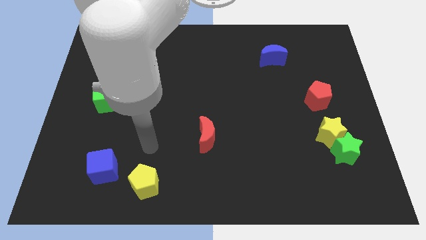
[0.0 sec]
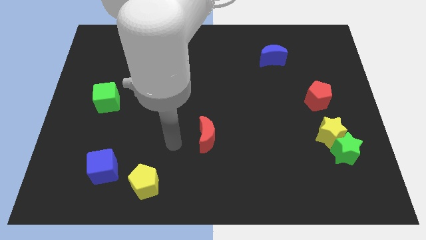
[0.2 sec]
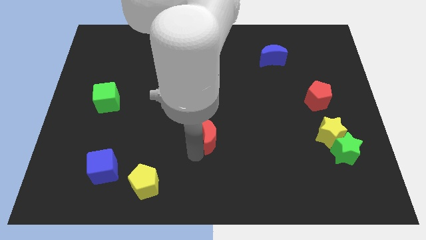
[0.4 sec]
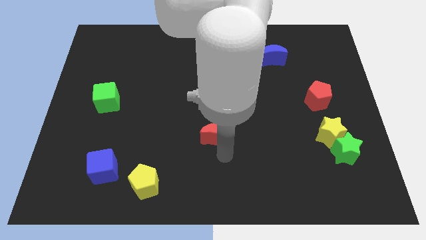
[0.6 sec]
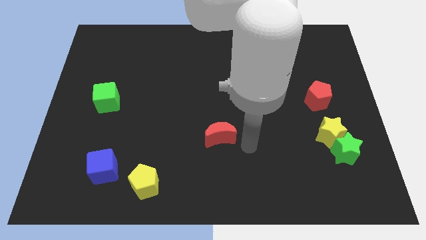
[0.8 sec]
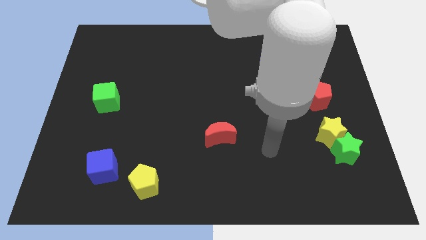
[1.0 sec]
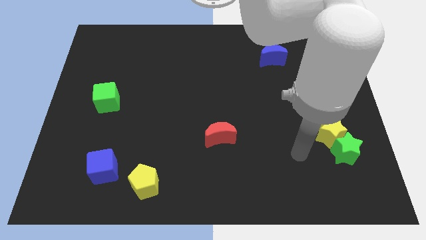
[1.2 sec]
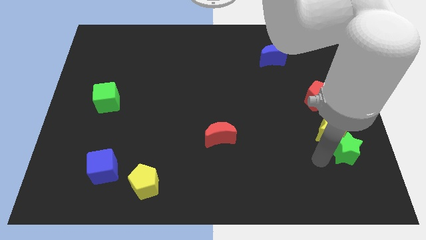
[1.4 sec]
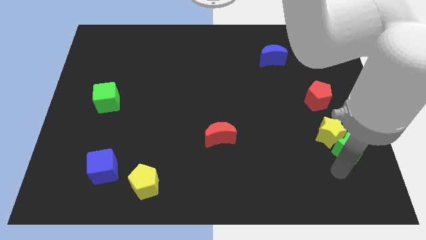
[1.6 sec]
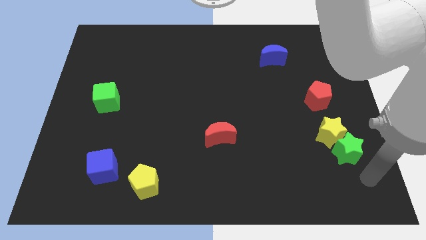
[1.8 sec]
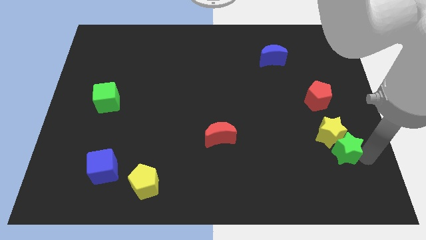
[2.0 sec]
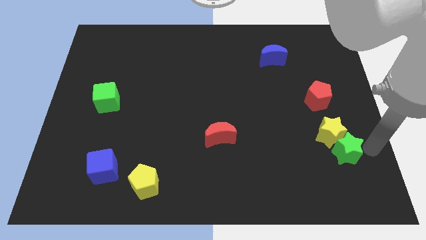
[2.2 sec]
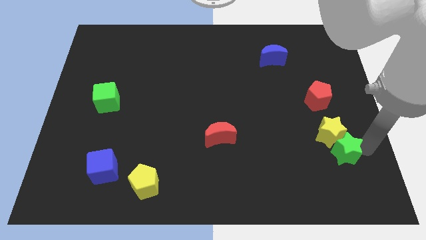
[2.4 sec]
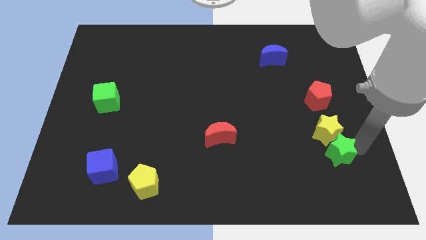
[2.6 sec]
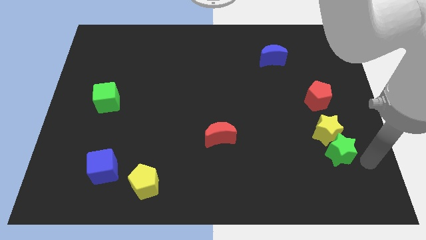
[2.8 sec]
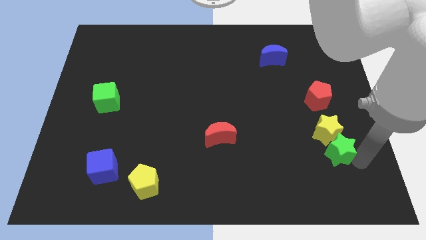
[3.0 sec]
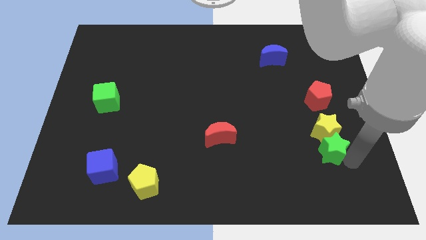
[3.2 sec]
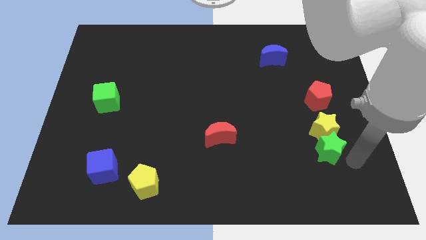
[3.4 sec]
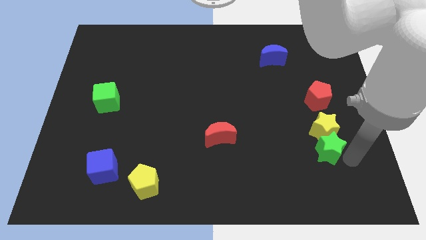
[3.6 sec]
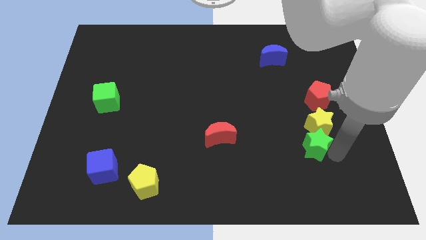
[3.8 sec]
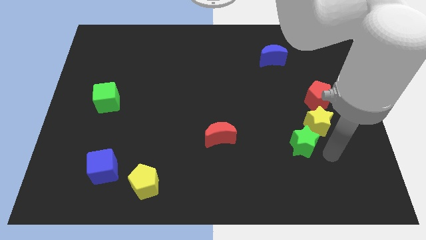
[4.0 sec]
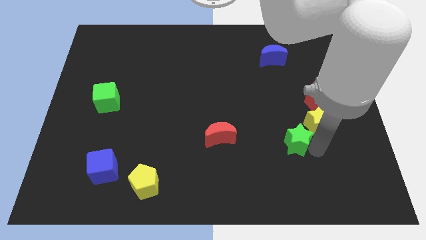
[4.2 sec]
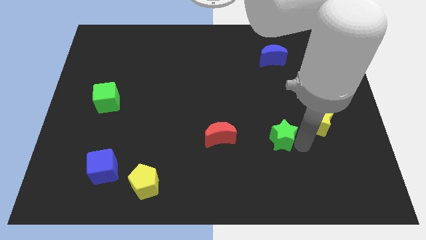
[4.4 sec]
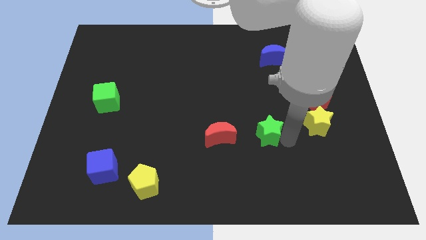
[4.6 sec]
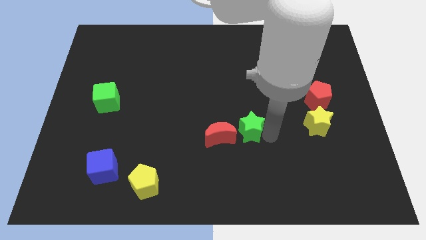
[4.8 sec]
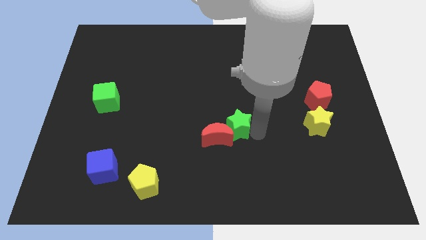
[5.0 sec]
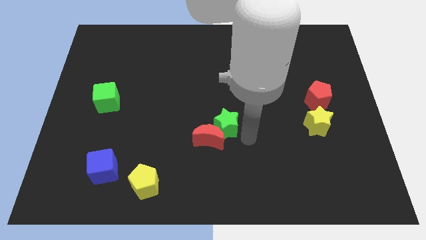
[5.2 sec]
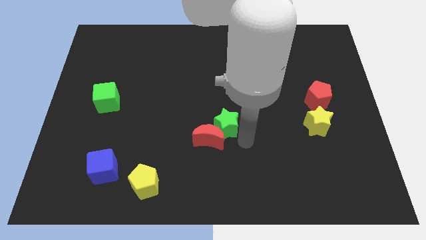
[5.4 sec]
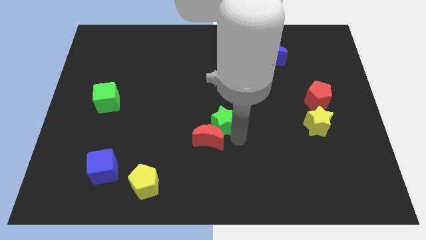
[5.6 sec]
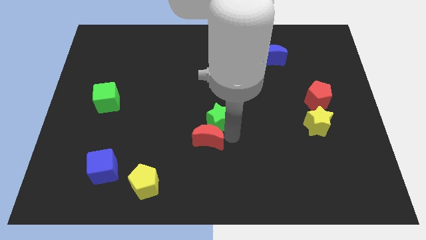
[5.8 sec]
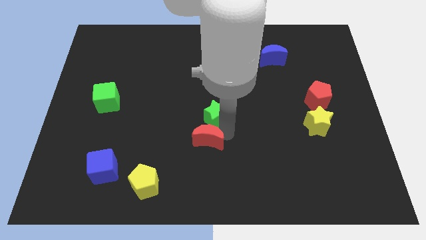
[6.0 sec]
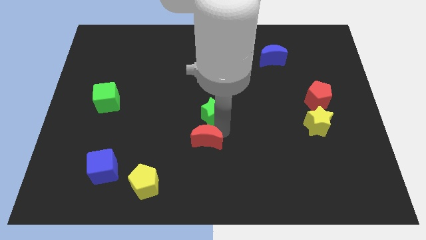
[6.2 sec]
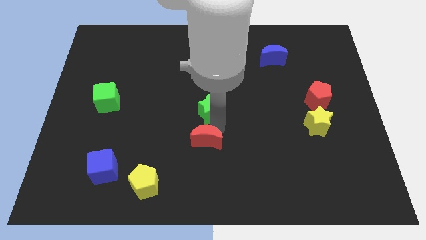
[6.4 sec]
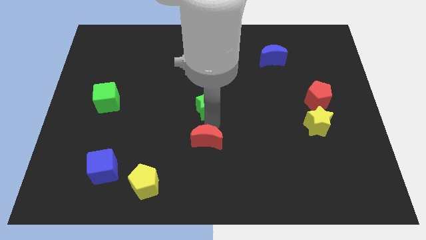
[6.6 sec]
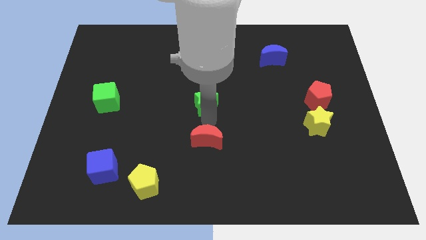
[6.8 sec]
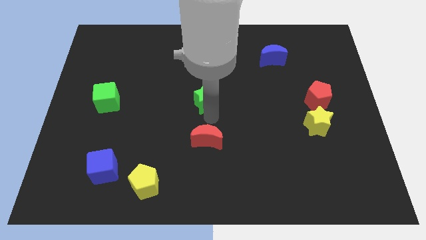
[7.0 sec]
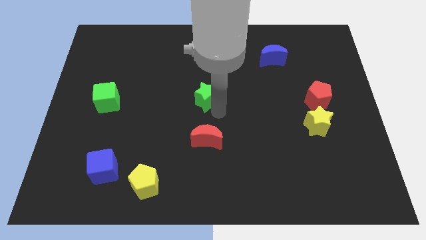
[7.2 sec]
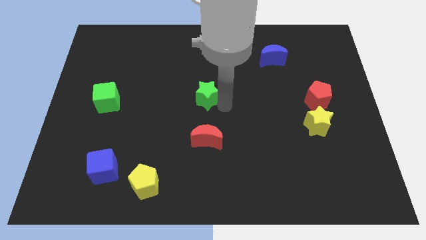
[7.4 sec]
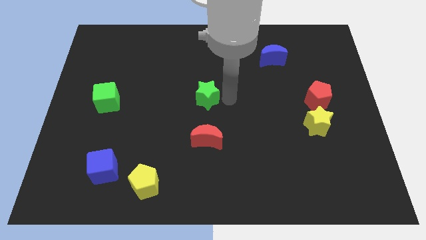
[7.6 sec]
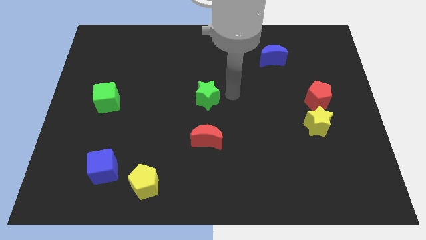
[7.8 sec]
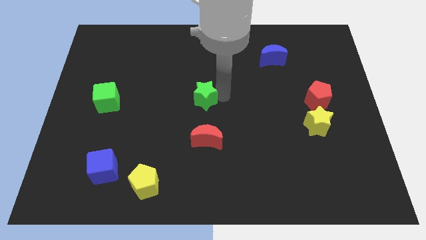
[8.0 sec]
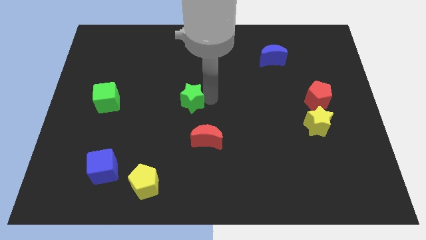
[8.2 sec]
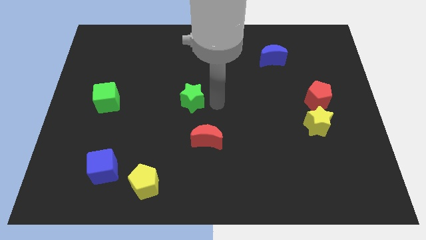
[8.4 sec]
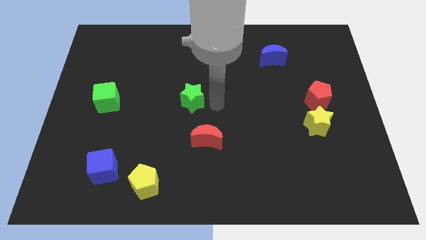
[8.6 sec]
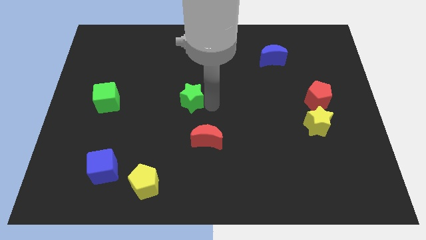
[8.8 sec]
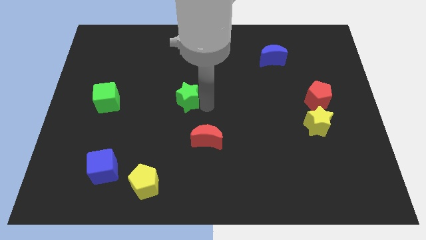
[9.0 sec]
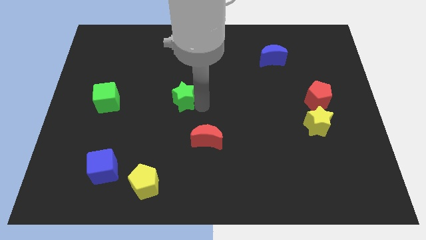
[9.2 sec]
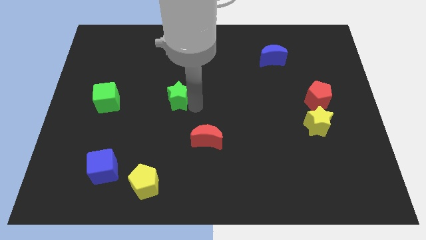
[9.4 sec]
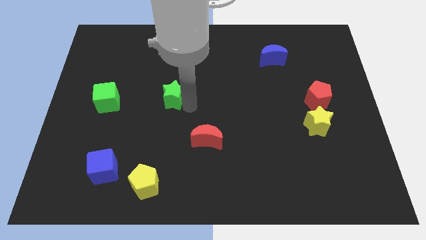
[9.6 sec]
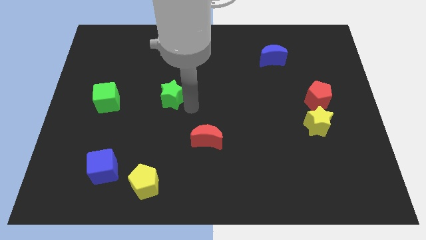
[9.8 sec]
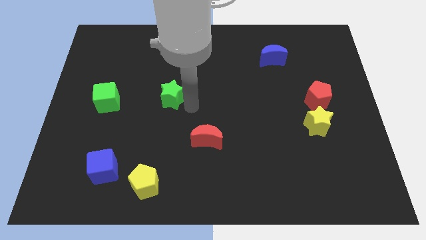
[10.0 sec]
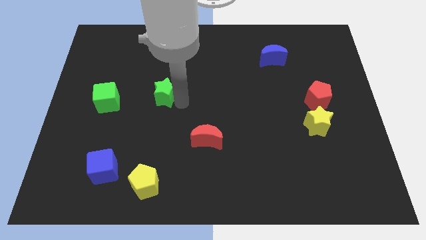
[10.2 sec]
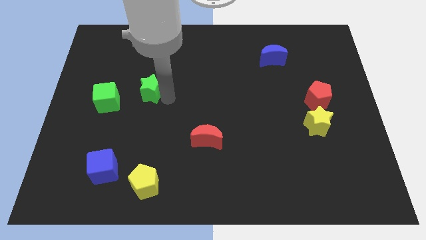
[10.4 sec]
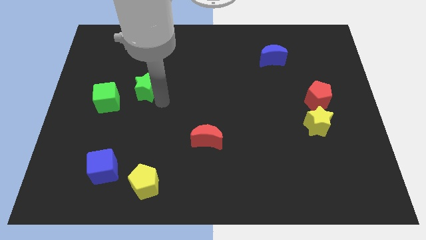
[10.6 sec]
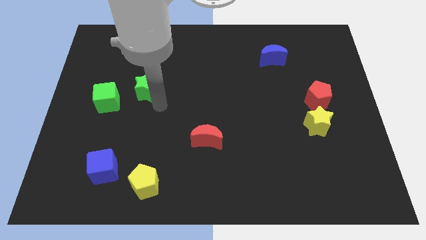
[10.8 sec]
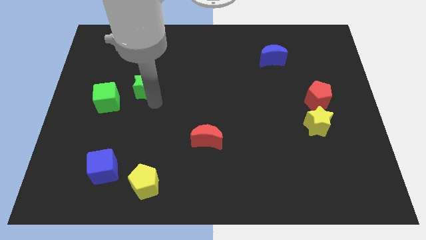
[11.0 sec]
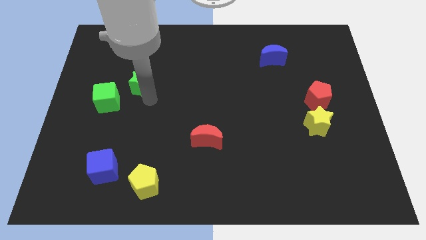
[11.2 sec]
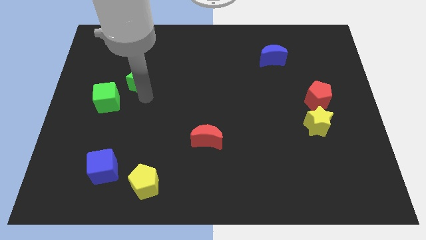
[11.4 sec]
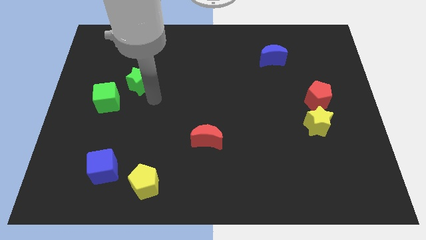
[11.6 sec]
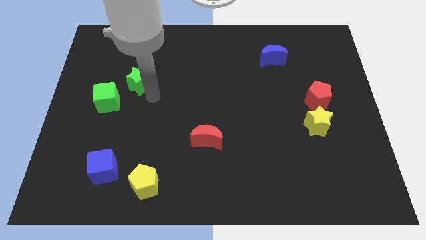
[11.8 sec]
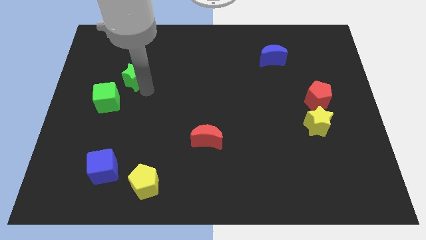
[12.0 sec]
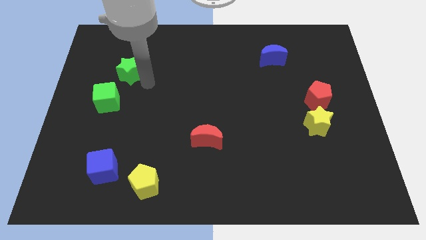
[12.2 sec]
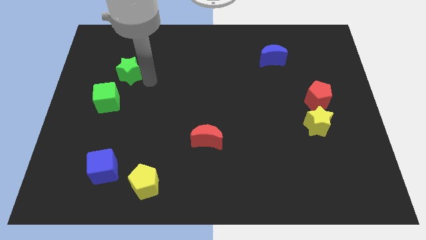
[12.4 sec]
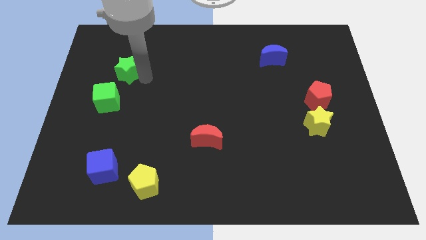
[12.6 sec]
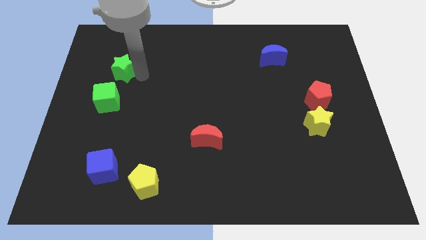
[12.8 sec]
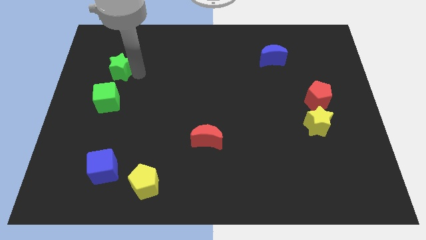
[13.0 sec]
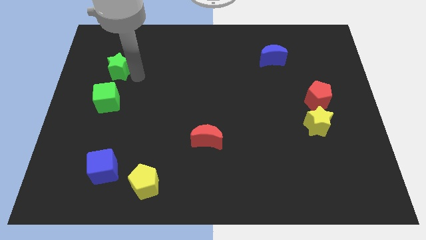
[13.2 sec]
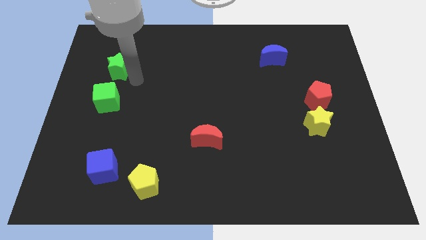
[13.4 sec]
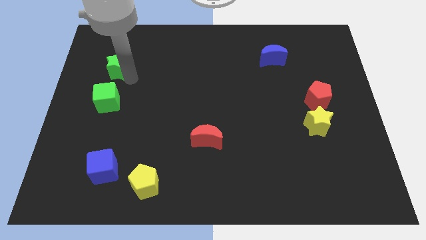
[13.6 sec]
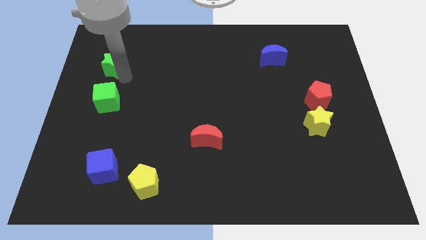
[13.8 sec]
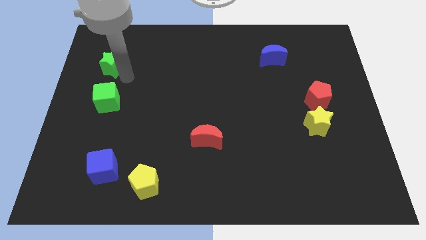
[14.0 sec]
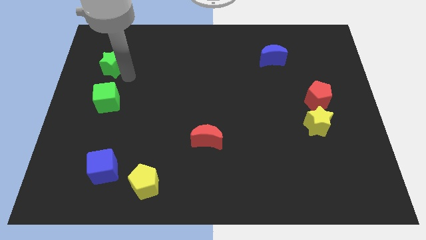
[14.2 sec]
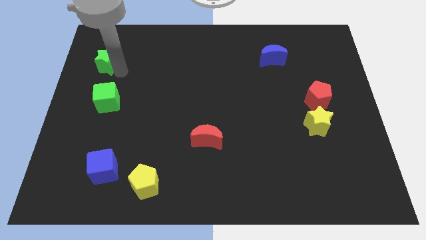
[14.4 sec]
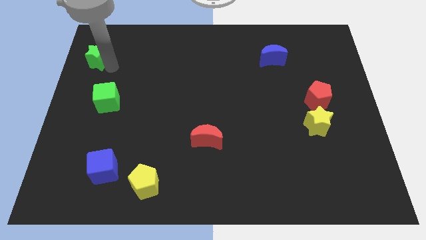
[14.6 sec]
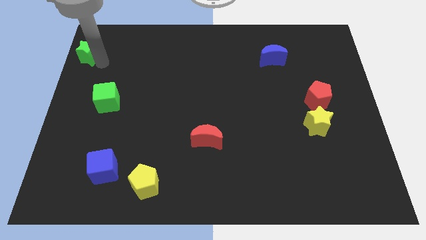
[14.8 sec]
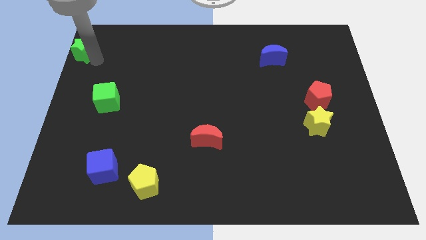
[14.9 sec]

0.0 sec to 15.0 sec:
move the green star to the top left corner
